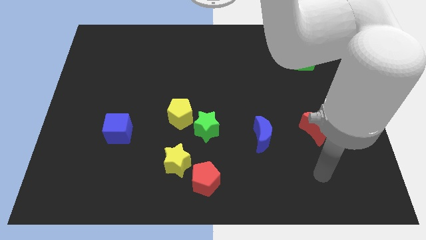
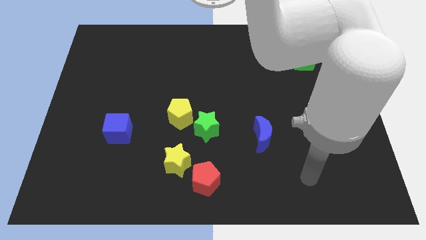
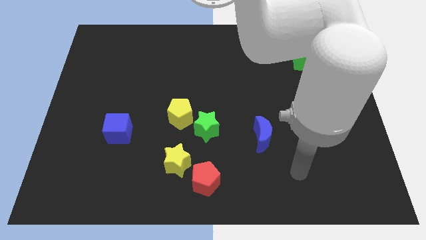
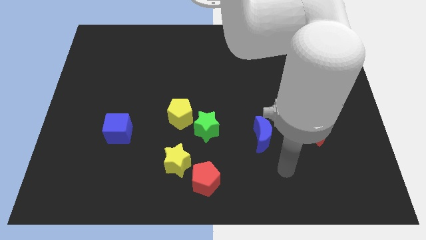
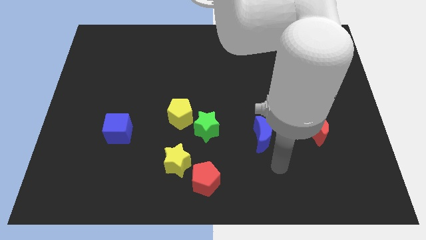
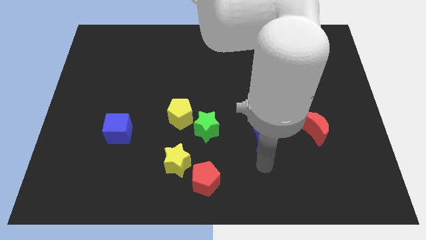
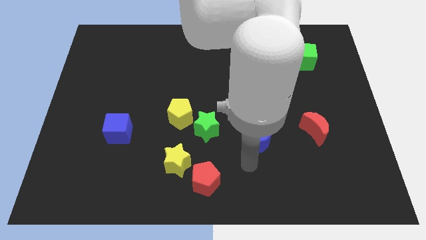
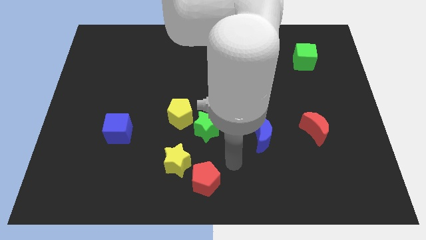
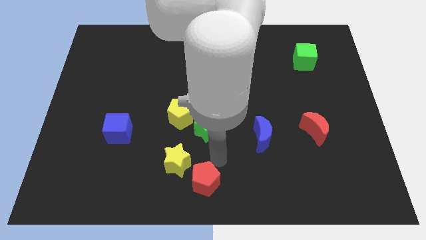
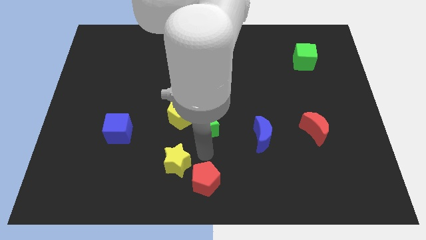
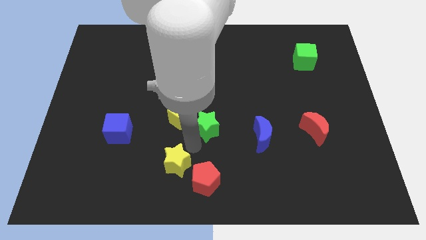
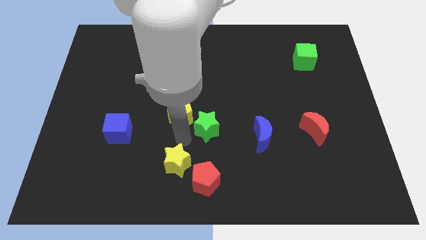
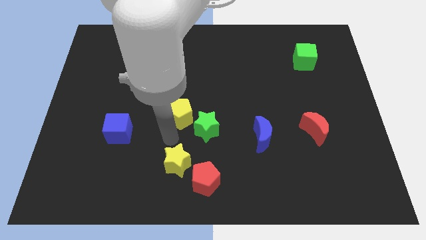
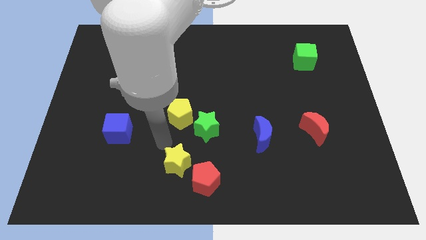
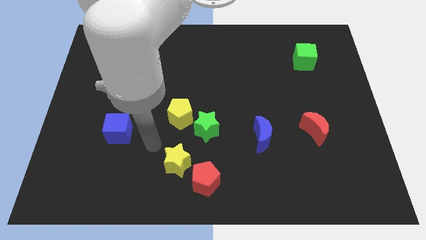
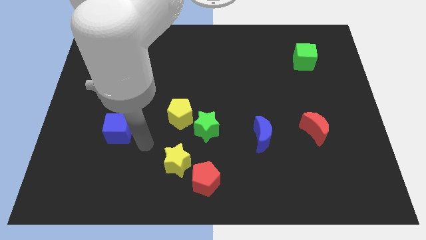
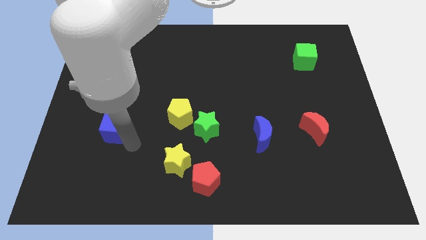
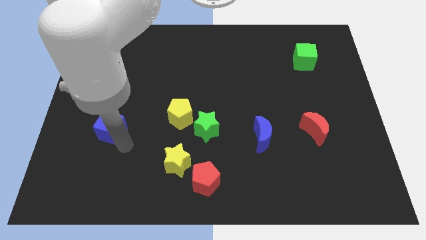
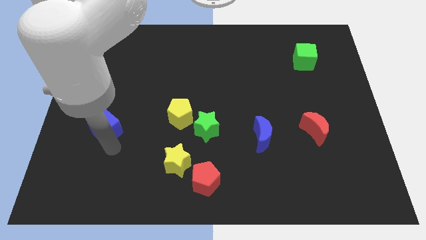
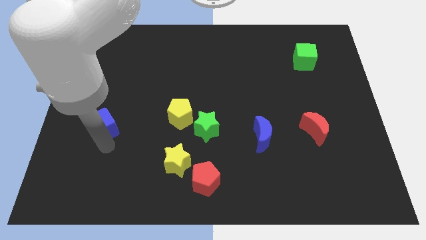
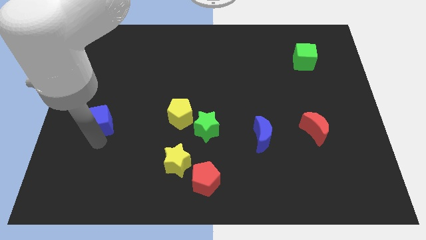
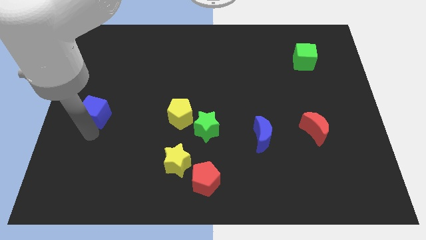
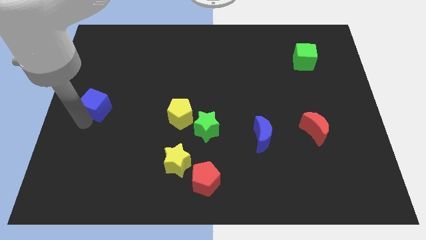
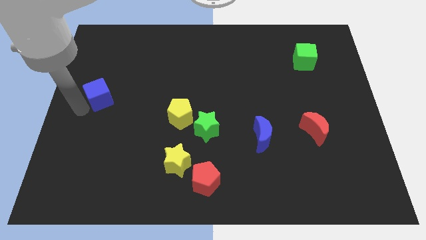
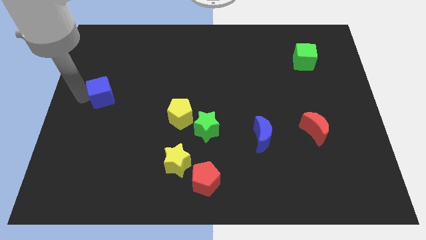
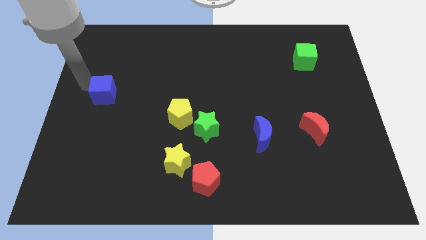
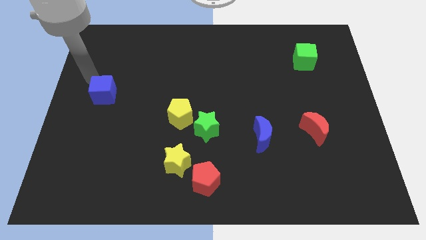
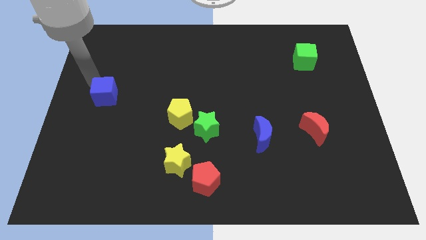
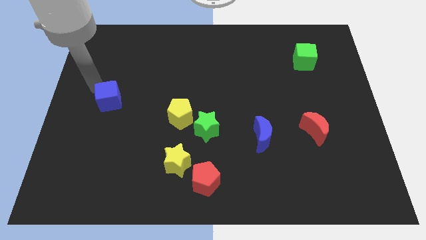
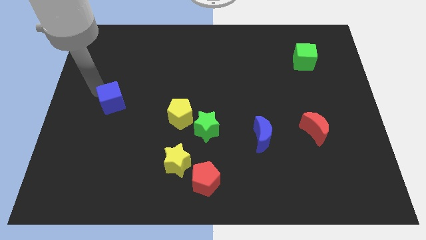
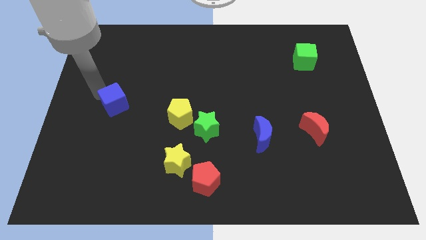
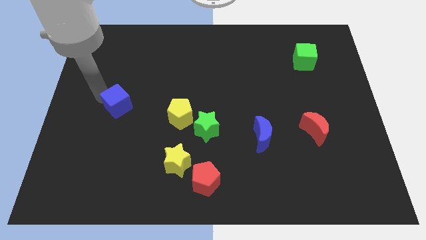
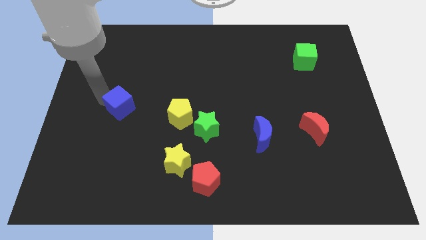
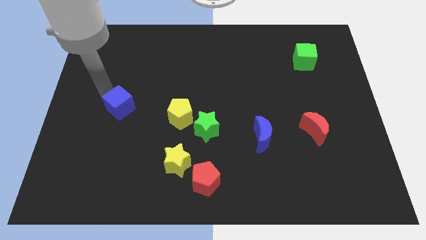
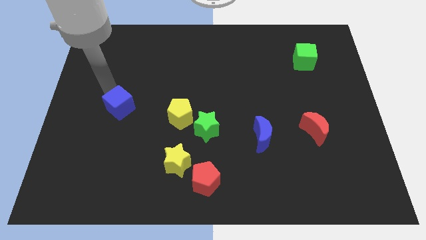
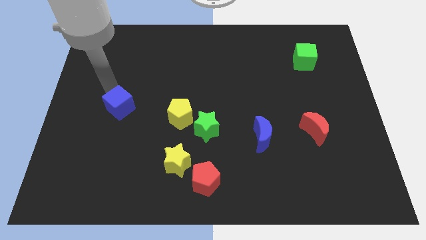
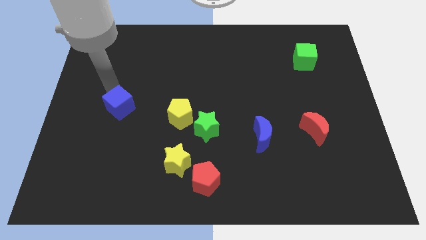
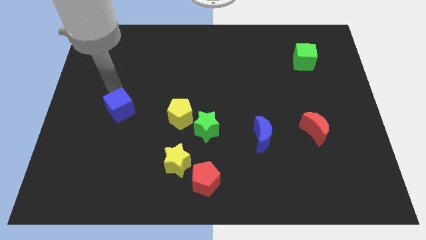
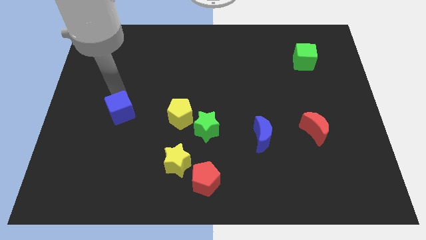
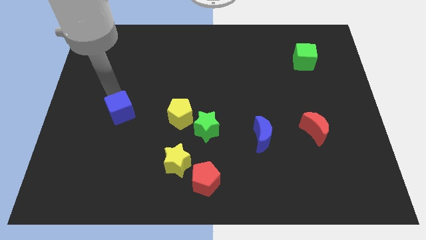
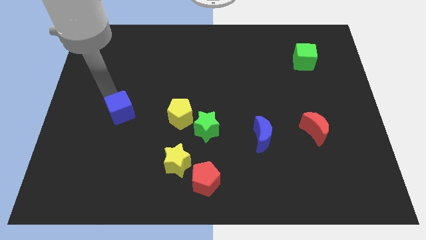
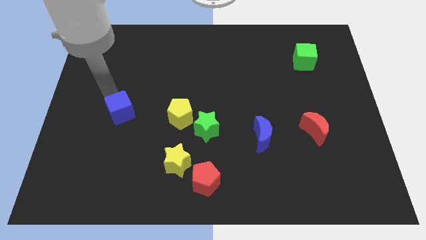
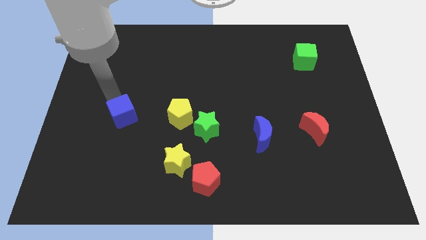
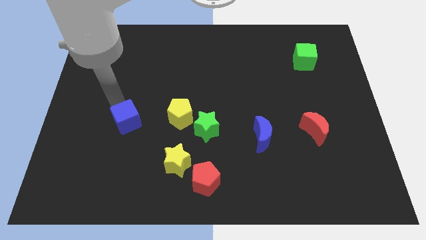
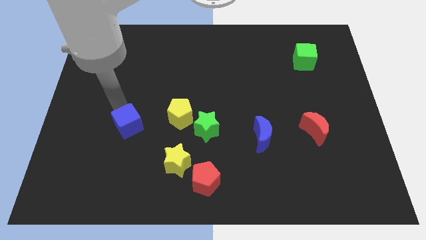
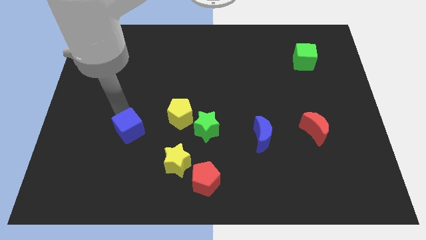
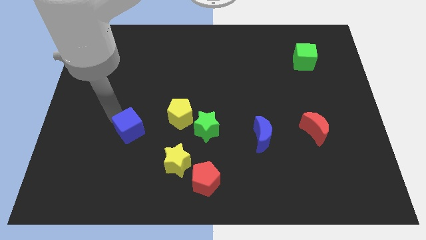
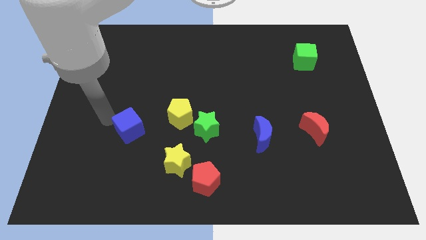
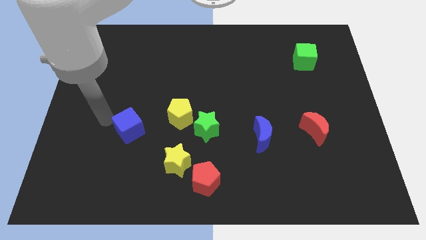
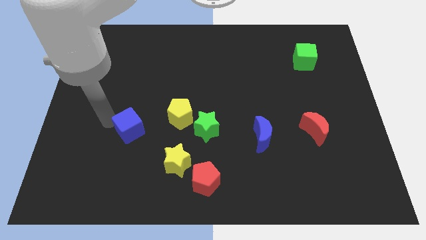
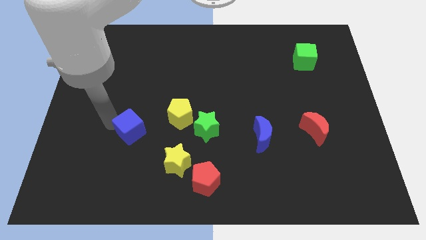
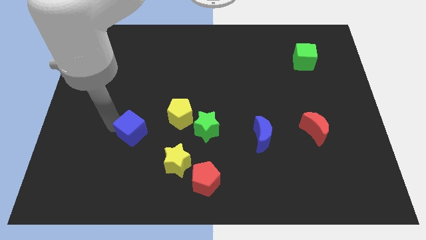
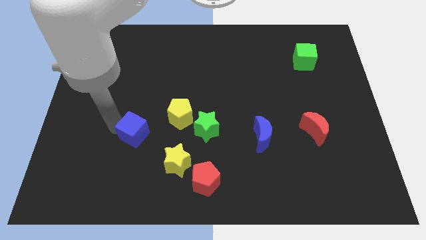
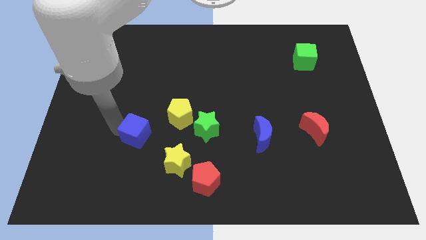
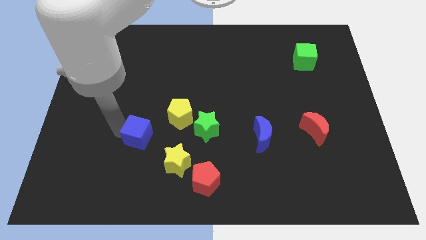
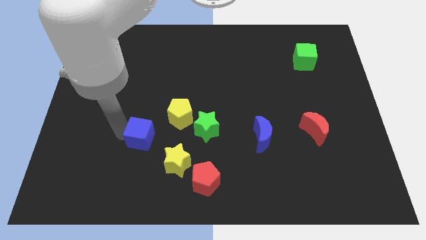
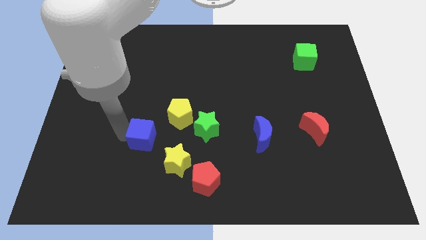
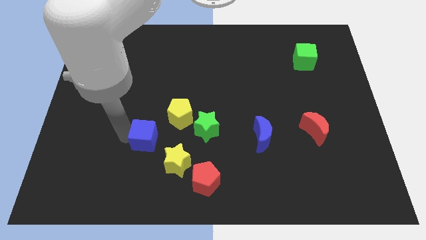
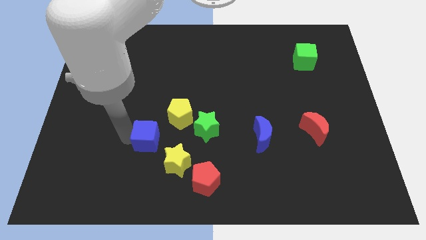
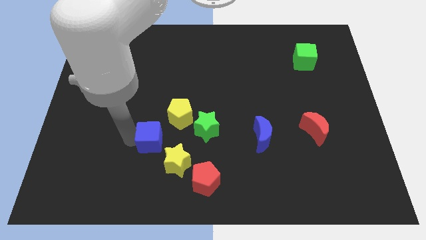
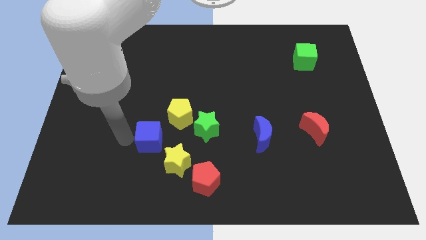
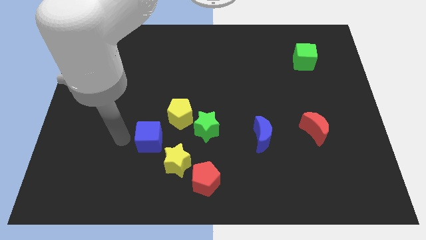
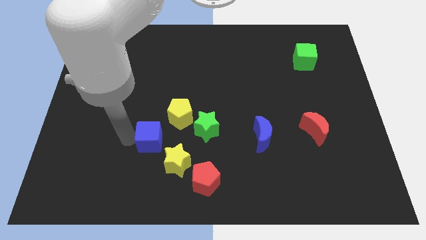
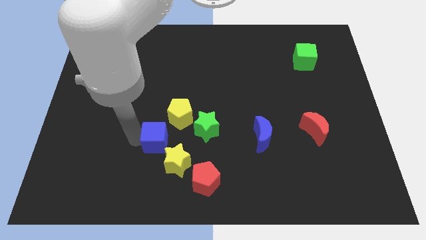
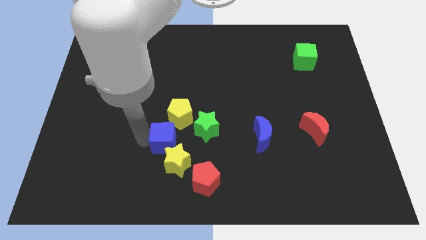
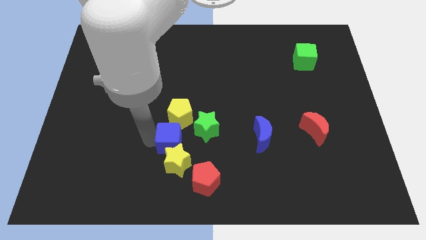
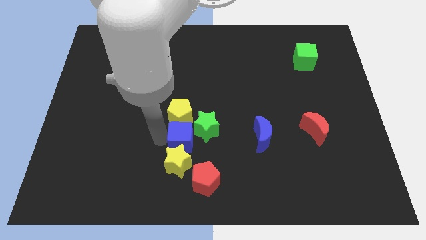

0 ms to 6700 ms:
push the blue cube diagonally down and to the right of the yellow pentagon

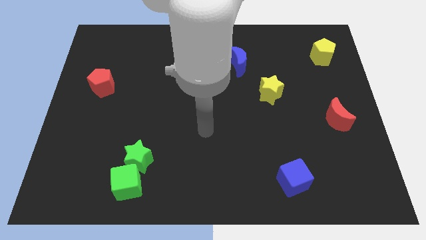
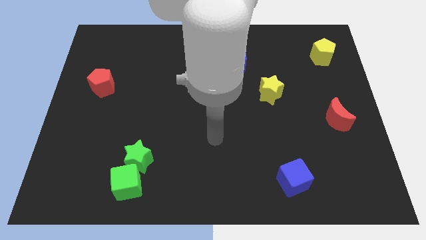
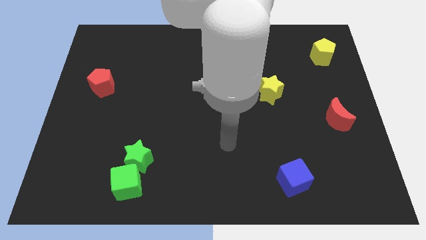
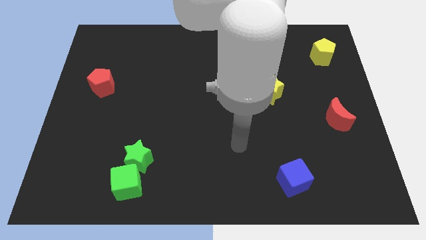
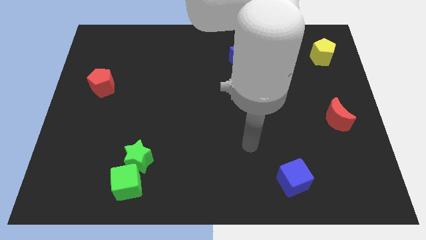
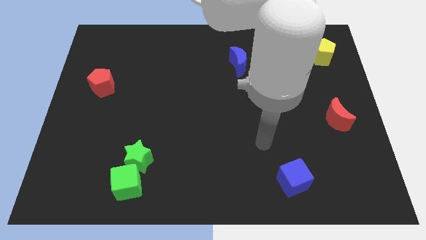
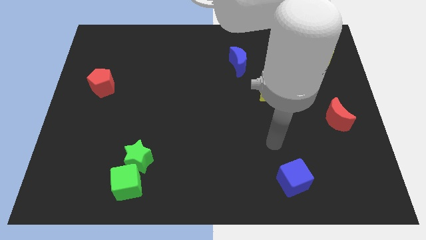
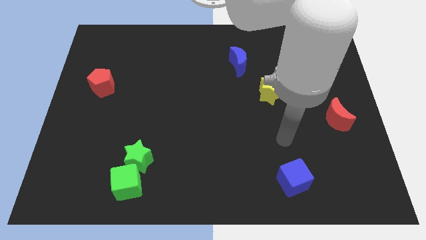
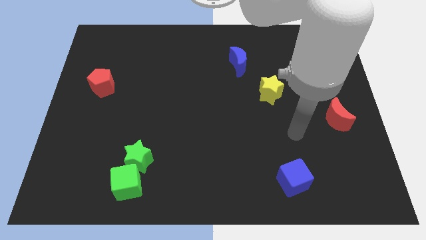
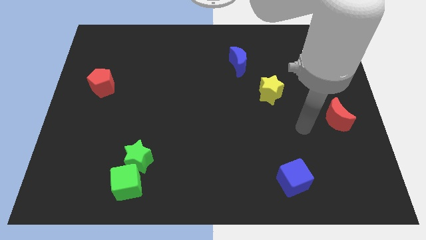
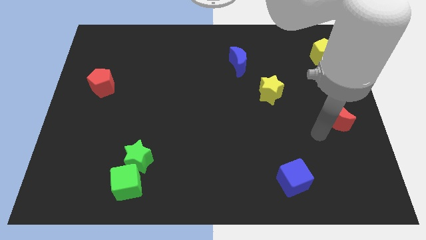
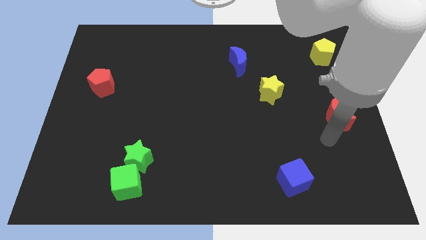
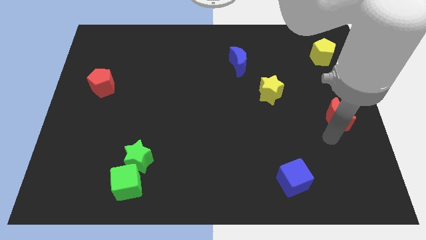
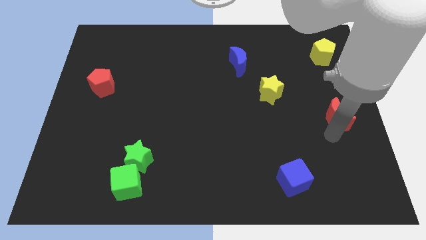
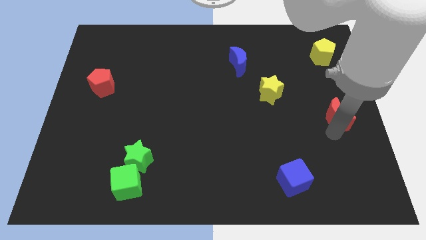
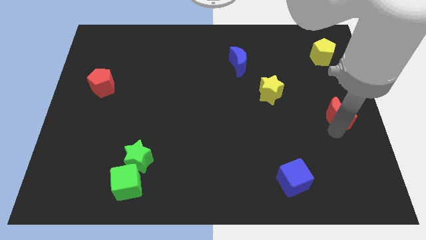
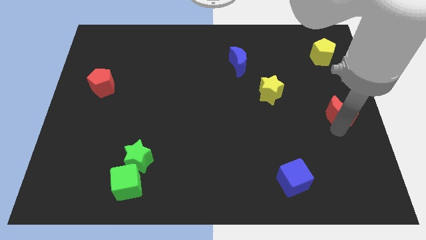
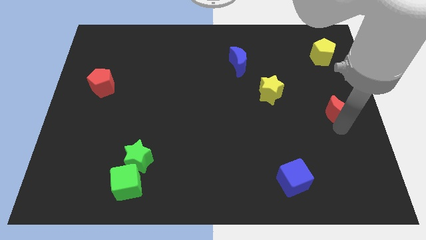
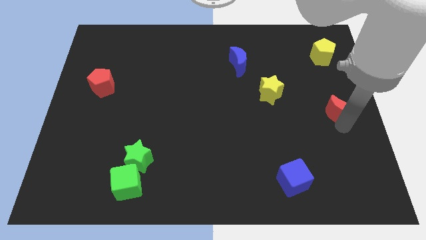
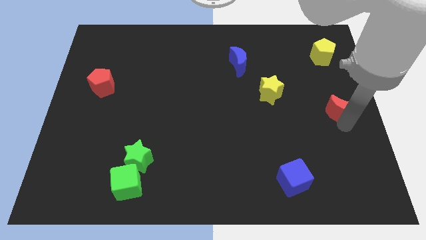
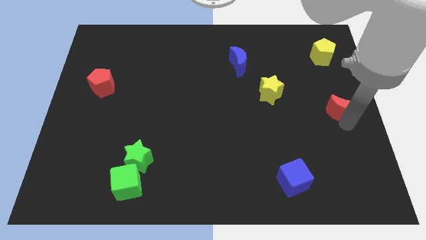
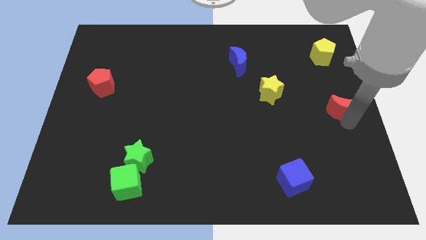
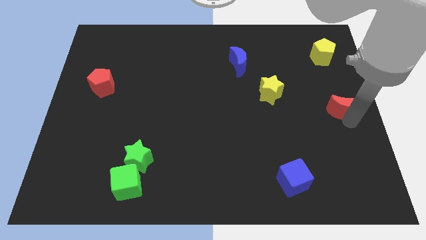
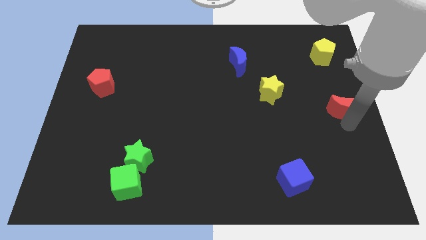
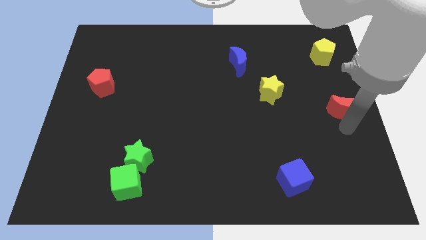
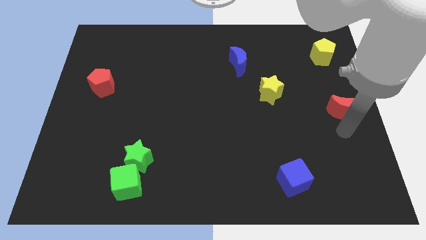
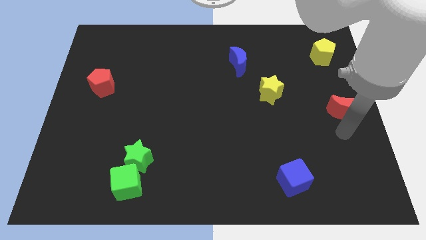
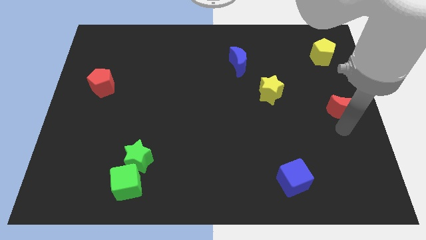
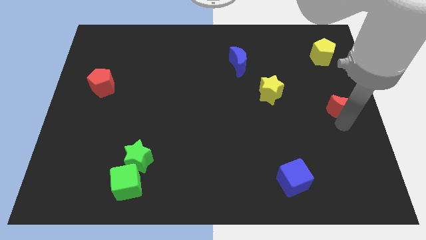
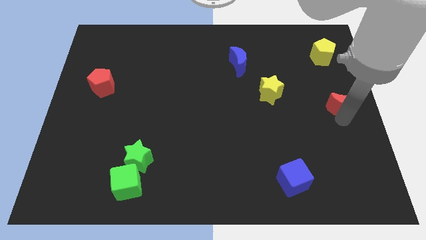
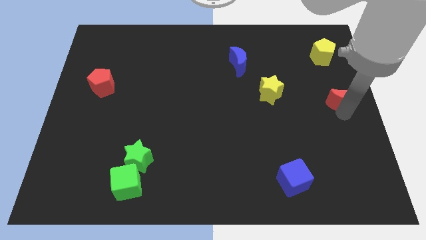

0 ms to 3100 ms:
slide the red moon below the yellow pentagon
